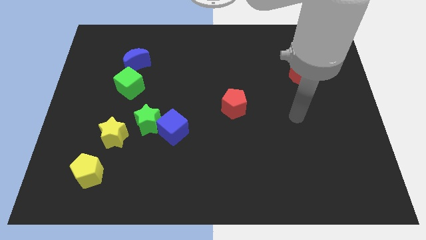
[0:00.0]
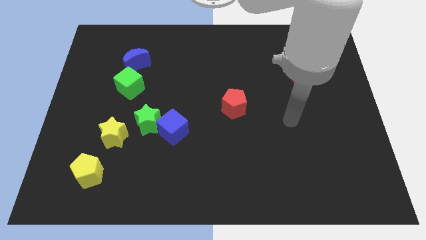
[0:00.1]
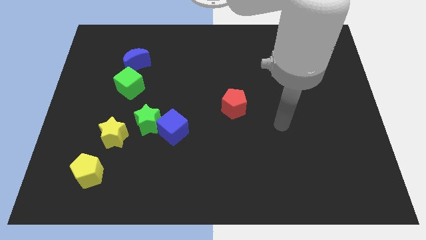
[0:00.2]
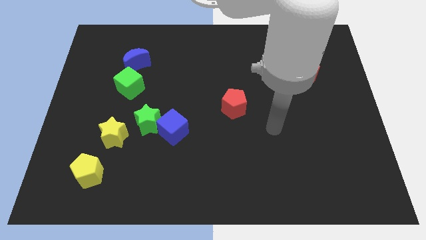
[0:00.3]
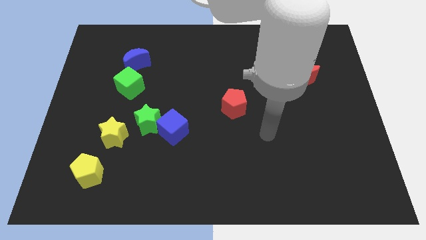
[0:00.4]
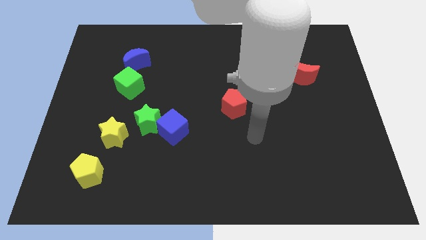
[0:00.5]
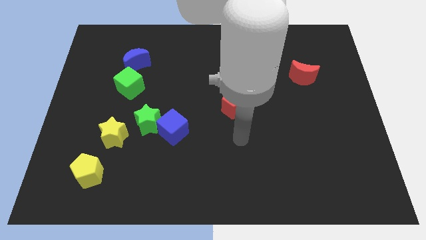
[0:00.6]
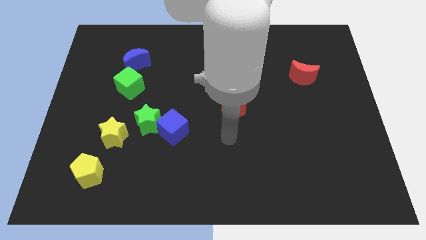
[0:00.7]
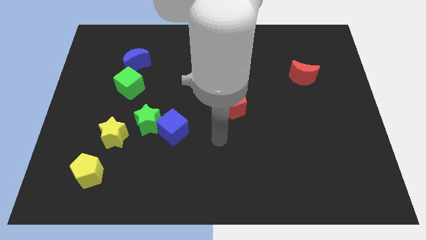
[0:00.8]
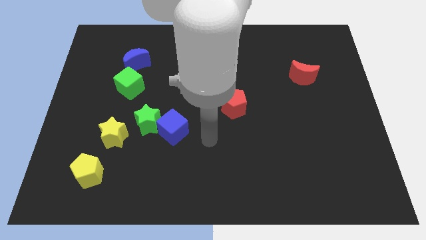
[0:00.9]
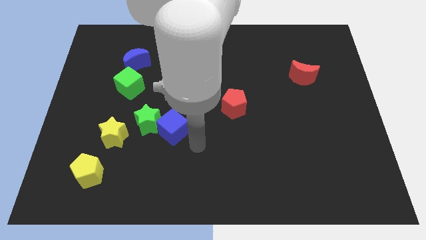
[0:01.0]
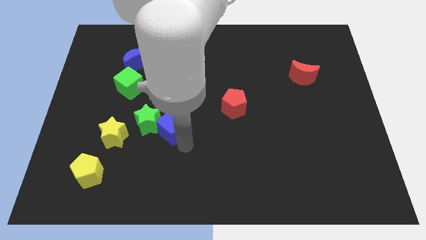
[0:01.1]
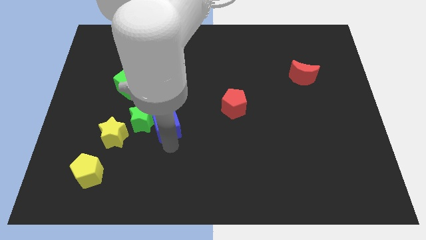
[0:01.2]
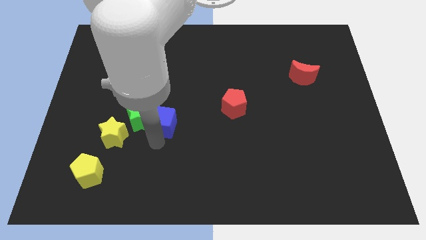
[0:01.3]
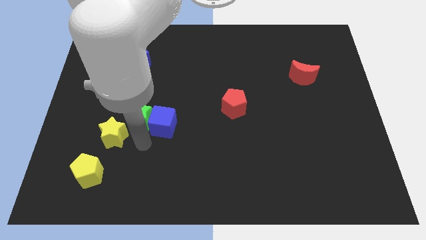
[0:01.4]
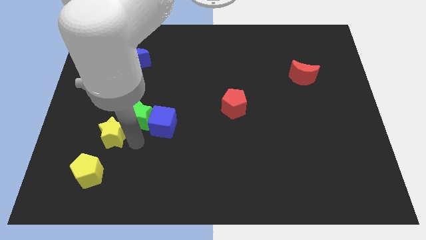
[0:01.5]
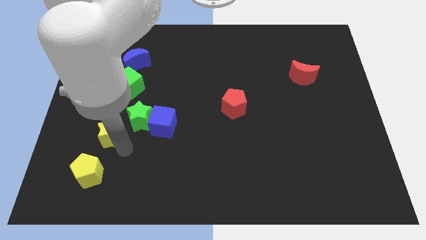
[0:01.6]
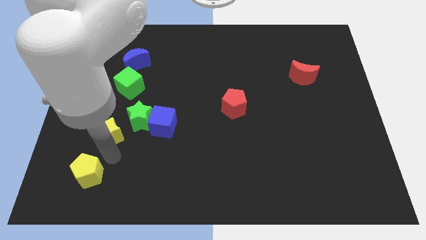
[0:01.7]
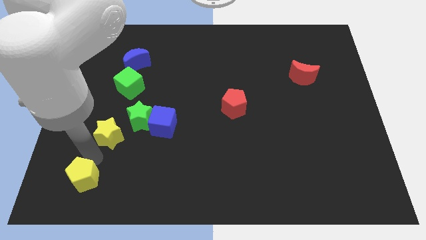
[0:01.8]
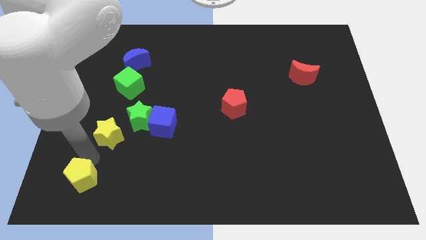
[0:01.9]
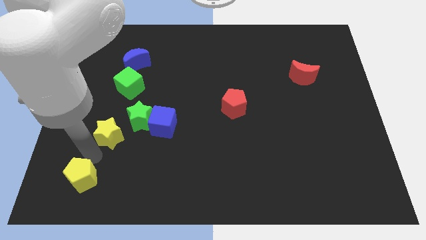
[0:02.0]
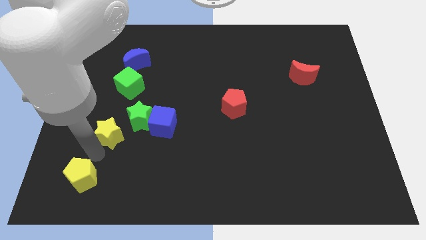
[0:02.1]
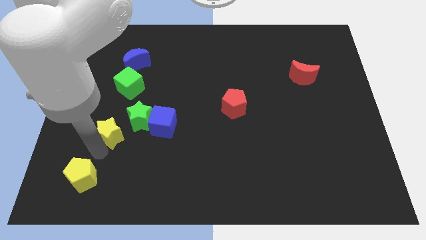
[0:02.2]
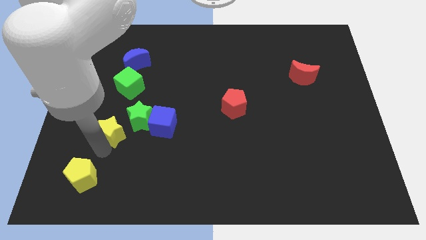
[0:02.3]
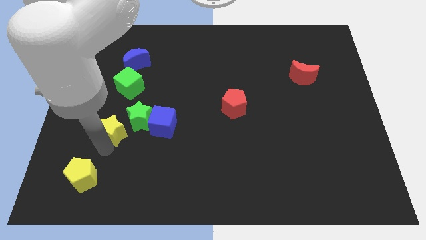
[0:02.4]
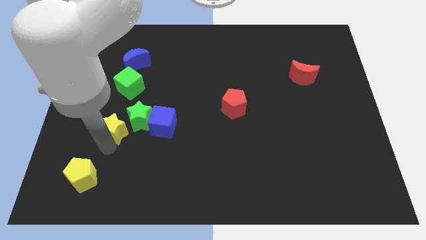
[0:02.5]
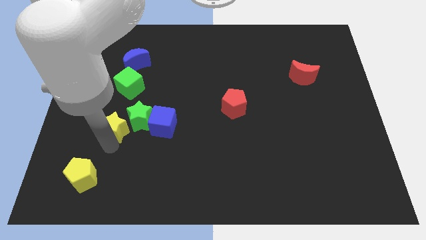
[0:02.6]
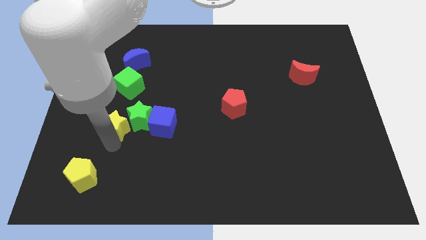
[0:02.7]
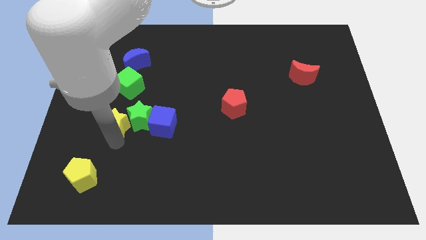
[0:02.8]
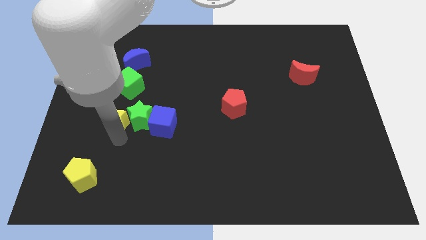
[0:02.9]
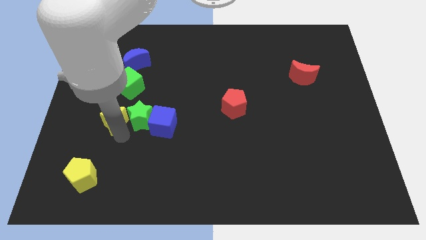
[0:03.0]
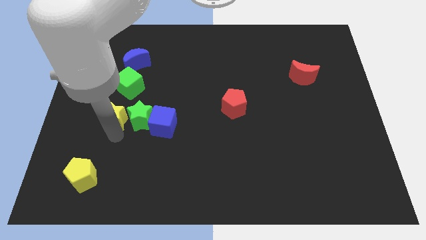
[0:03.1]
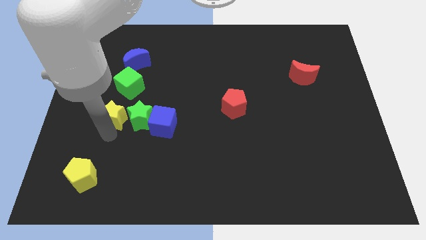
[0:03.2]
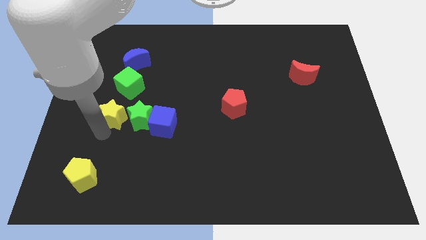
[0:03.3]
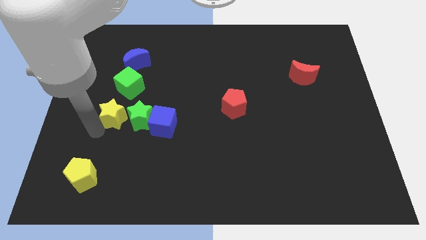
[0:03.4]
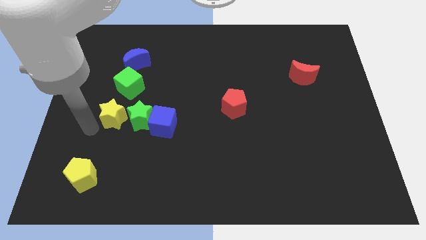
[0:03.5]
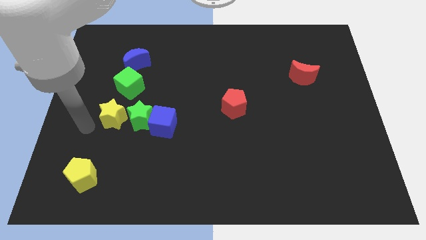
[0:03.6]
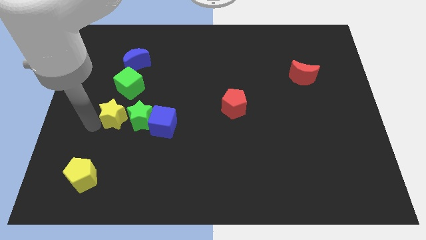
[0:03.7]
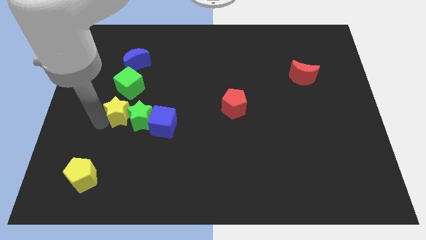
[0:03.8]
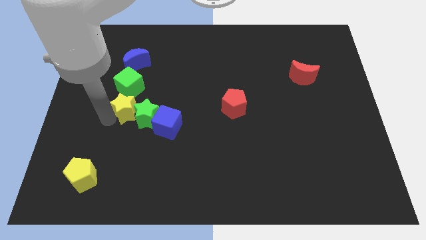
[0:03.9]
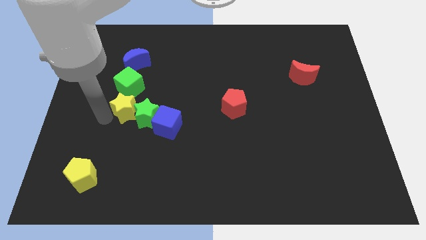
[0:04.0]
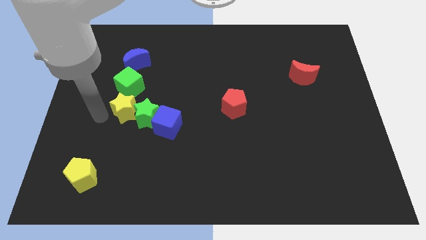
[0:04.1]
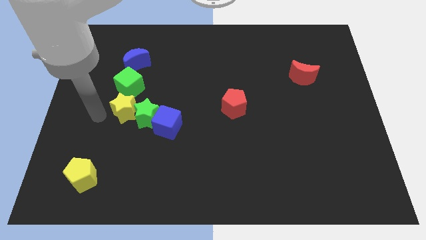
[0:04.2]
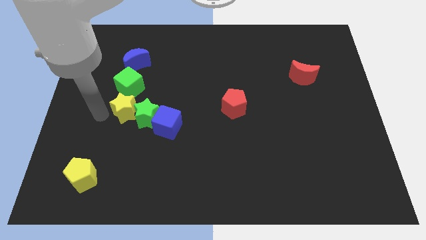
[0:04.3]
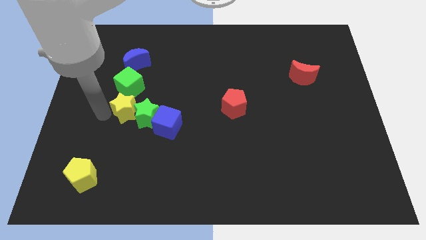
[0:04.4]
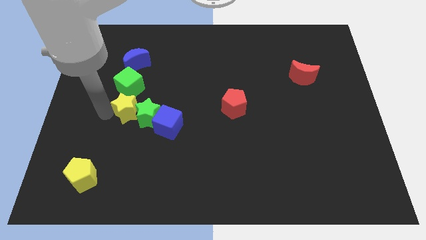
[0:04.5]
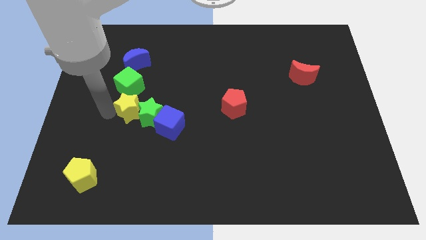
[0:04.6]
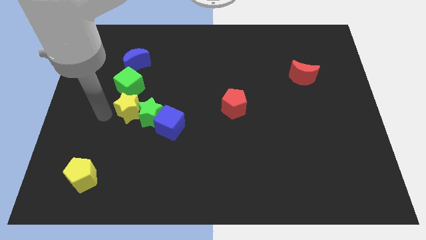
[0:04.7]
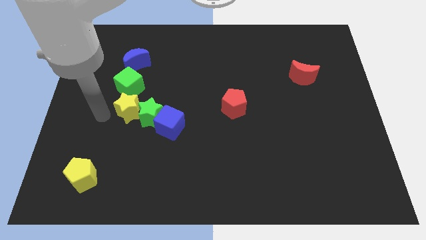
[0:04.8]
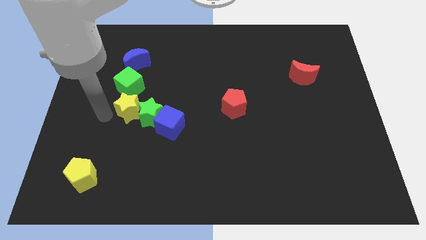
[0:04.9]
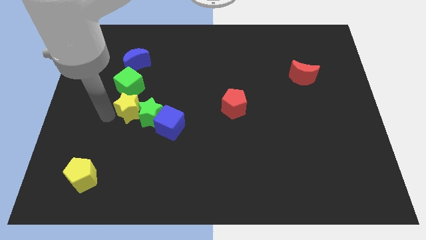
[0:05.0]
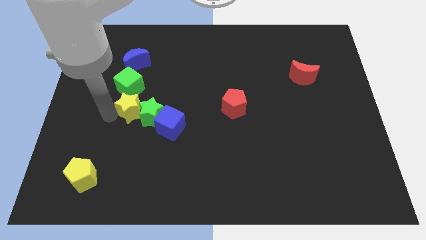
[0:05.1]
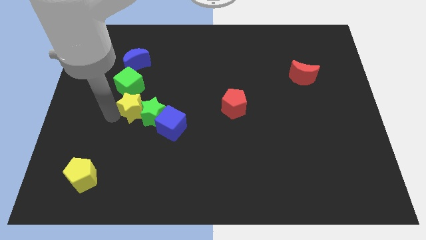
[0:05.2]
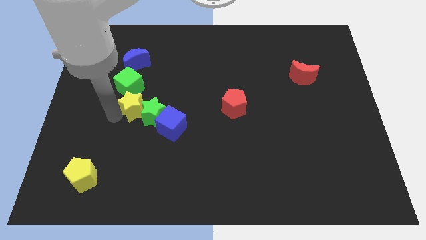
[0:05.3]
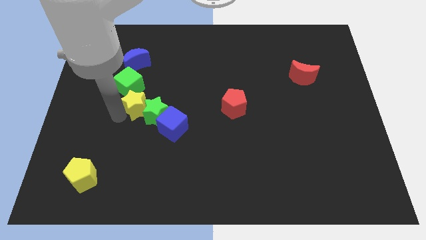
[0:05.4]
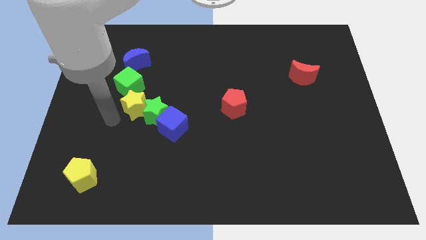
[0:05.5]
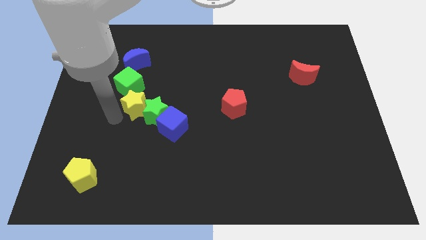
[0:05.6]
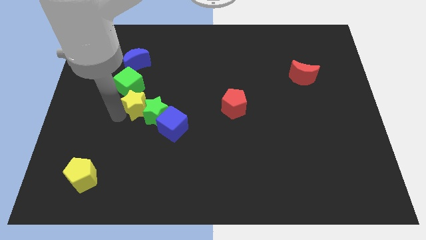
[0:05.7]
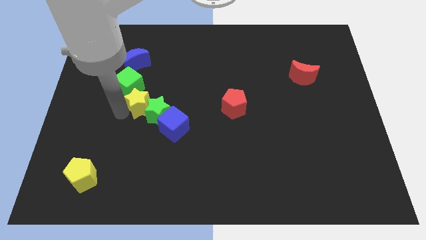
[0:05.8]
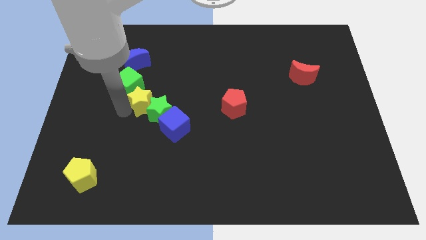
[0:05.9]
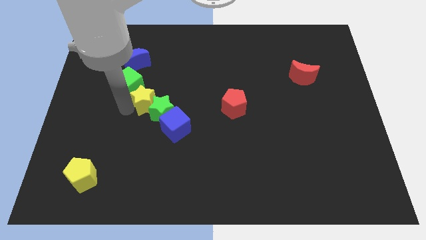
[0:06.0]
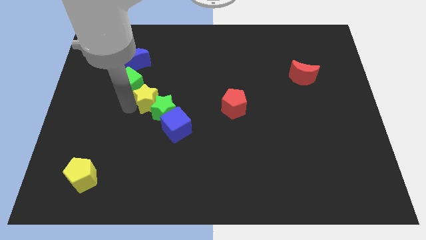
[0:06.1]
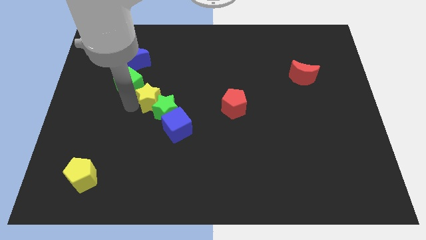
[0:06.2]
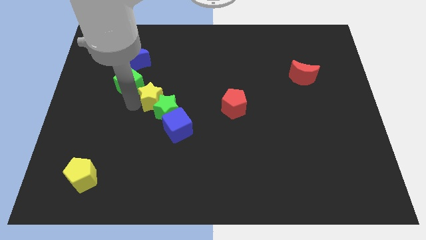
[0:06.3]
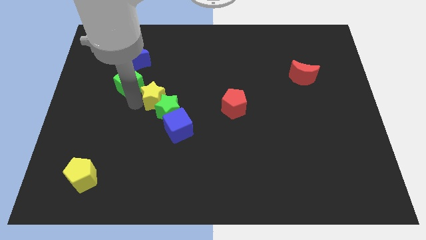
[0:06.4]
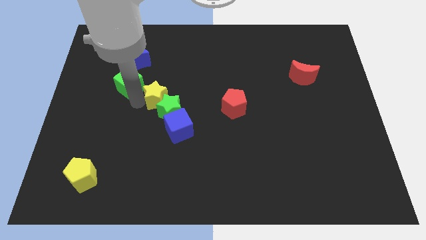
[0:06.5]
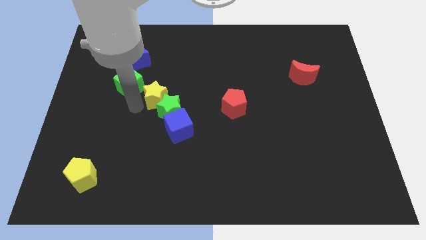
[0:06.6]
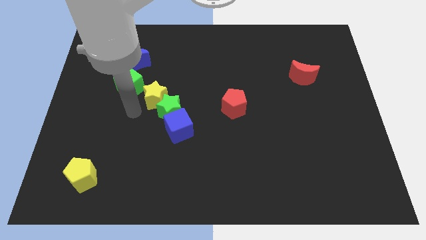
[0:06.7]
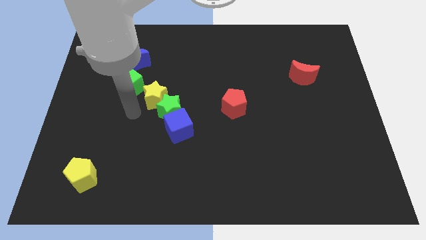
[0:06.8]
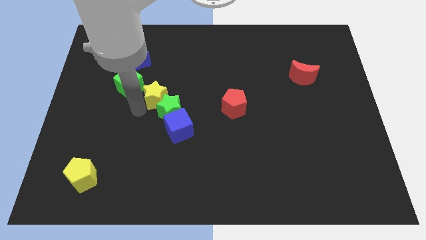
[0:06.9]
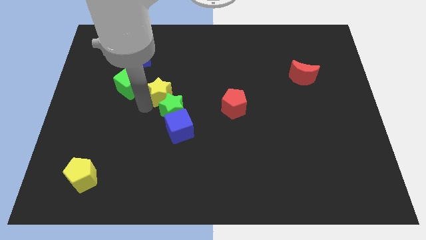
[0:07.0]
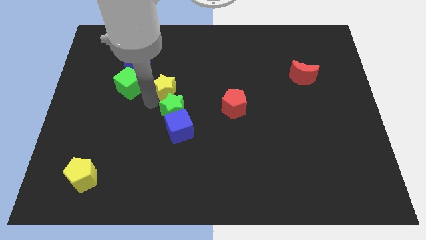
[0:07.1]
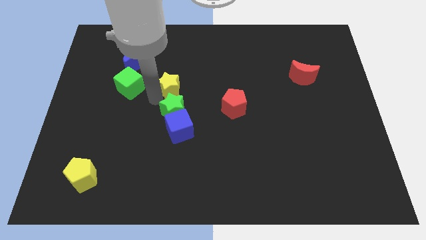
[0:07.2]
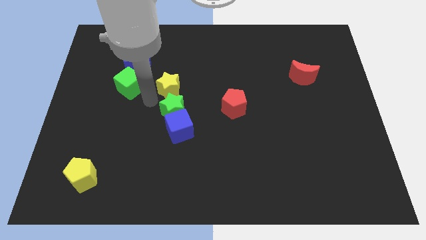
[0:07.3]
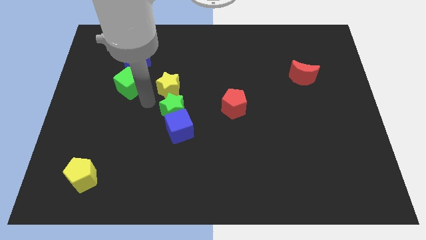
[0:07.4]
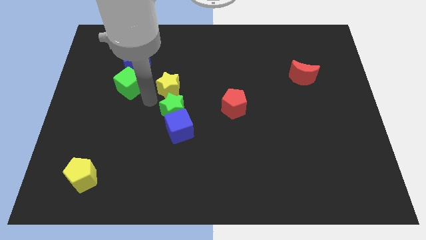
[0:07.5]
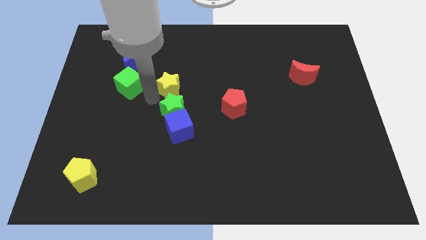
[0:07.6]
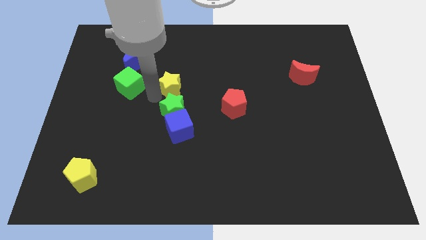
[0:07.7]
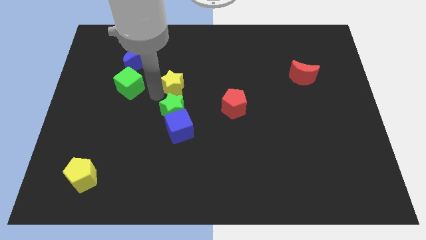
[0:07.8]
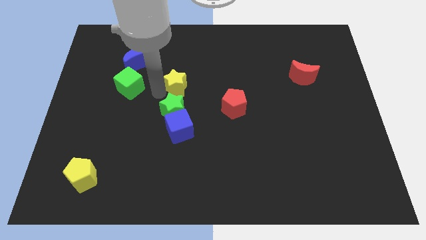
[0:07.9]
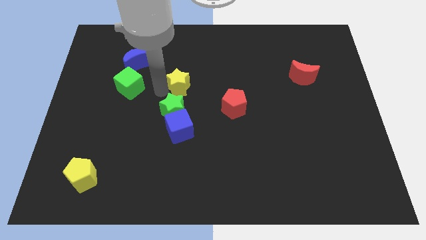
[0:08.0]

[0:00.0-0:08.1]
move the yellow star up and then to the right
